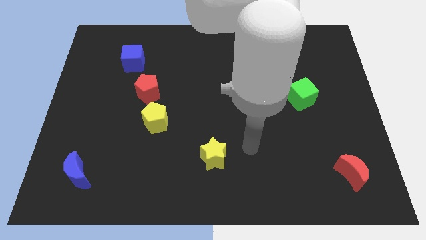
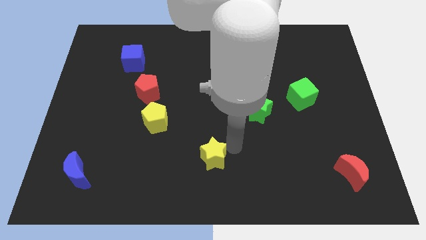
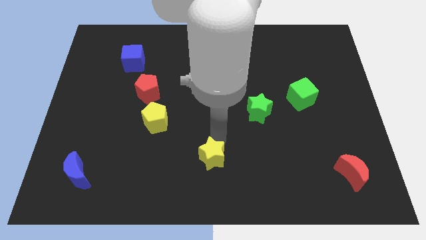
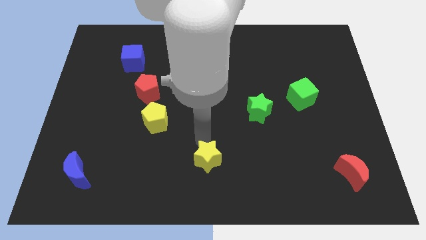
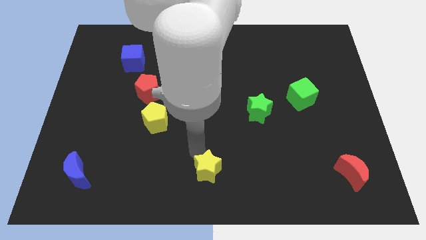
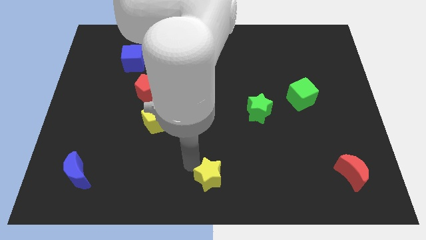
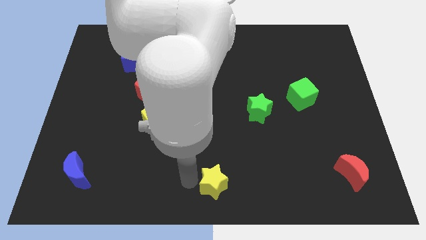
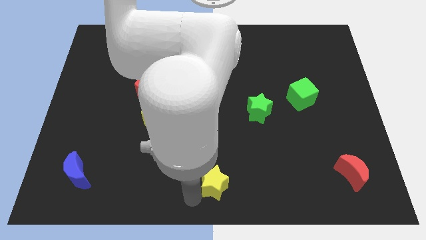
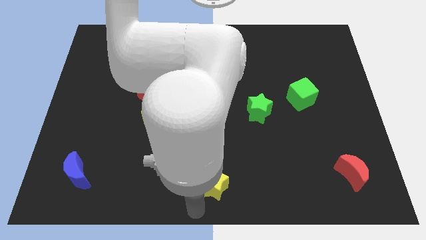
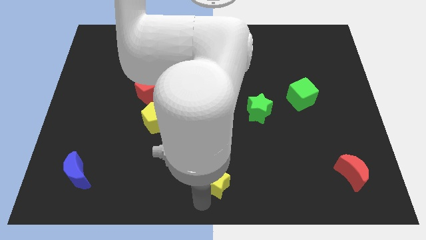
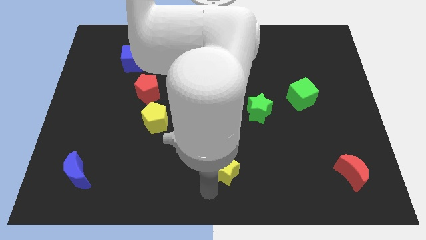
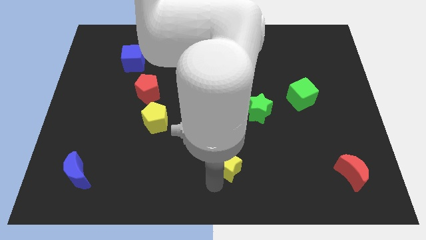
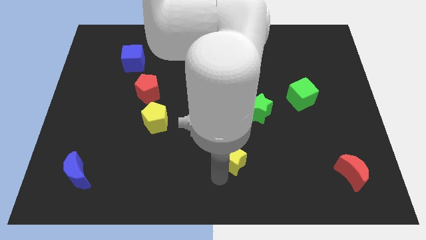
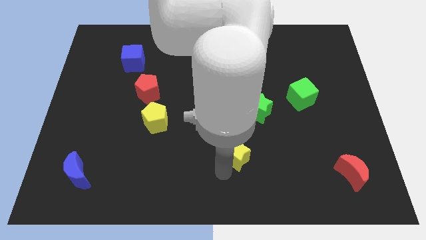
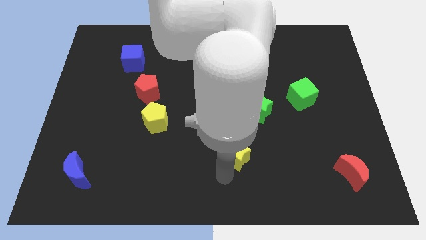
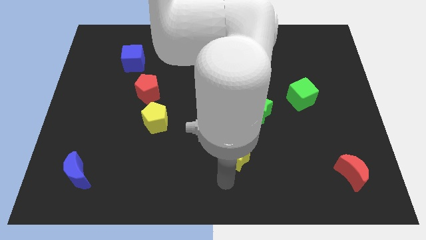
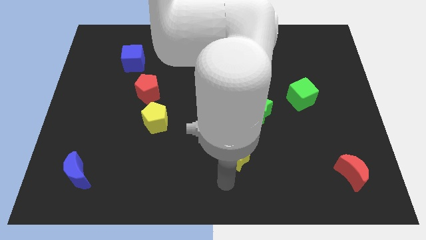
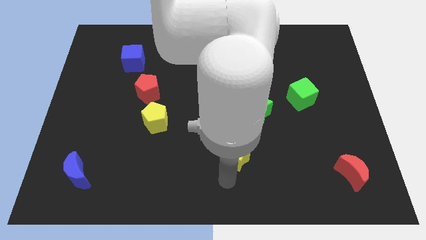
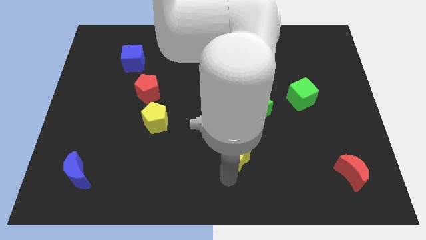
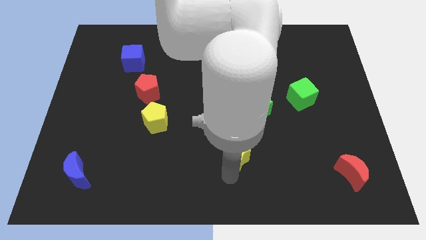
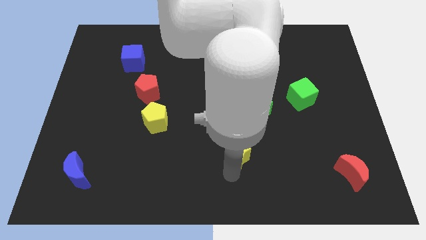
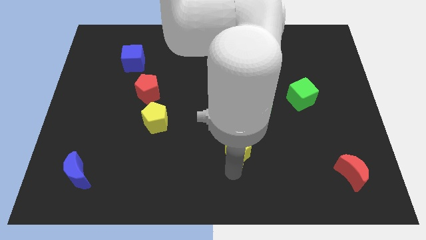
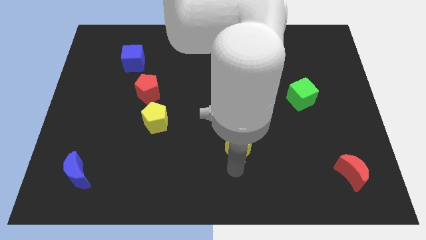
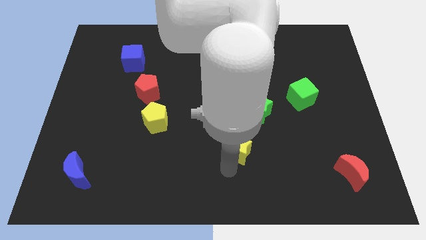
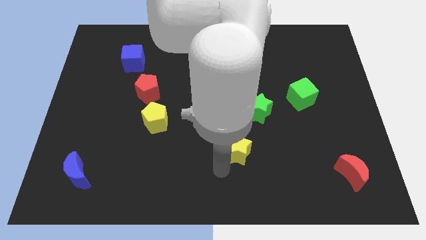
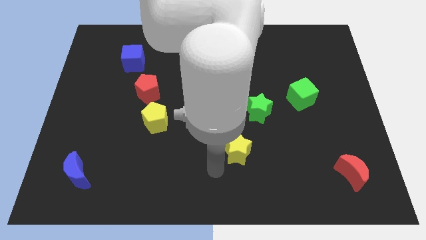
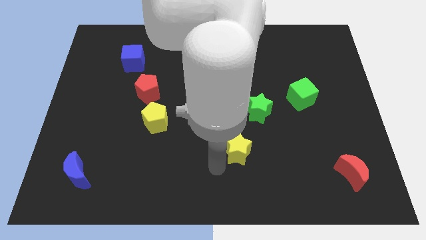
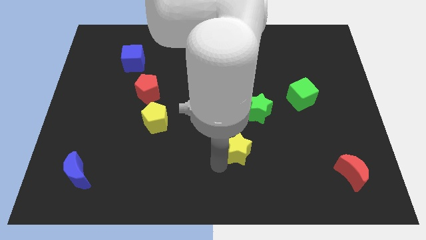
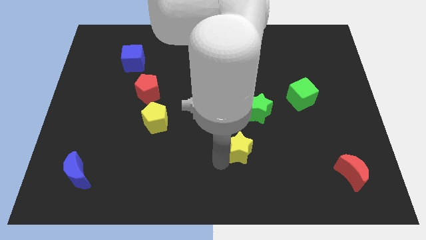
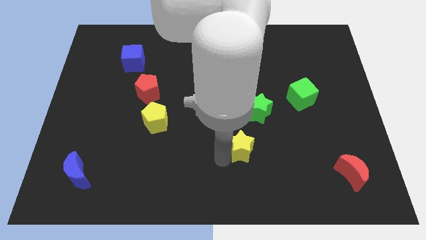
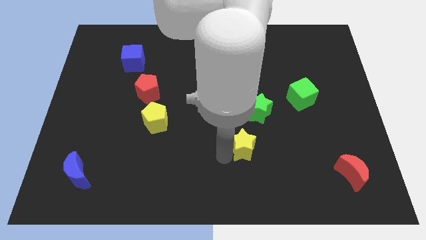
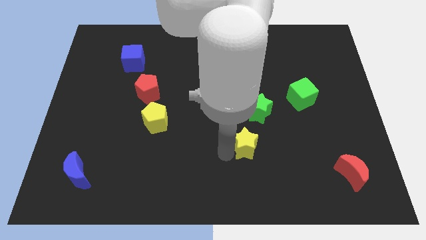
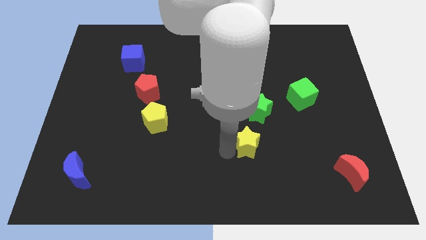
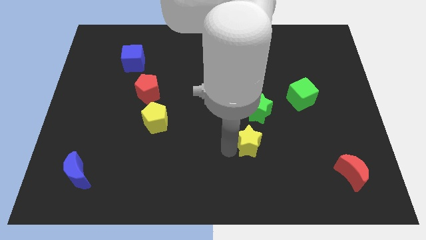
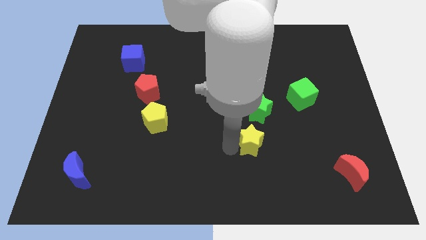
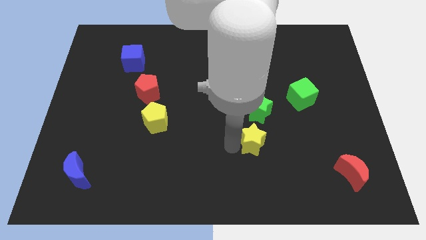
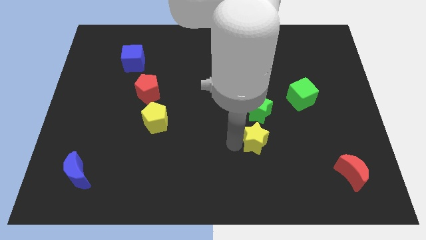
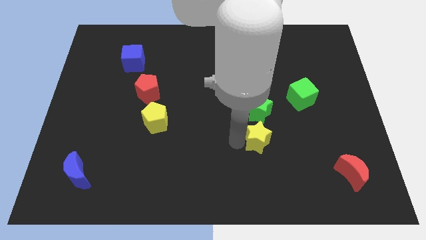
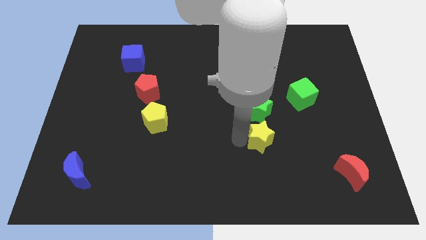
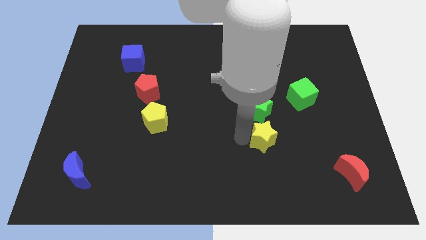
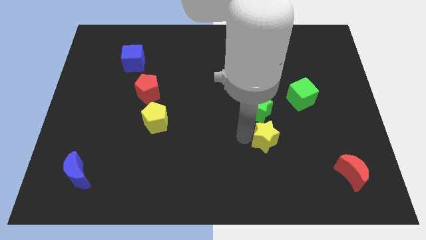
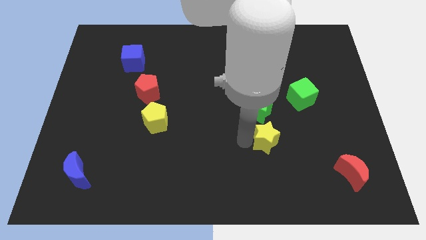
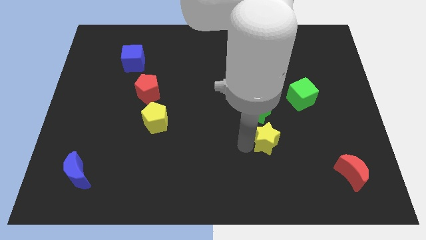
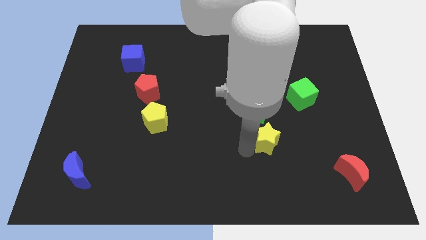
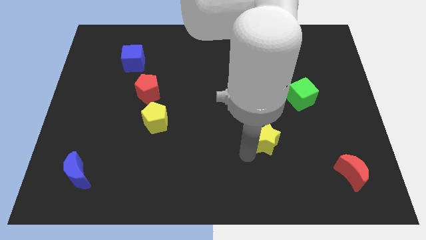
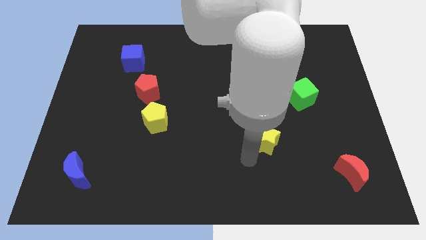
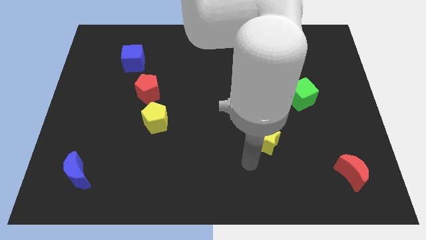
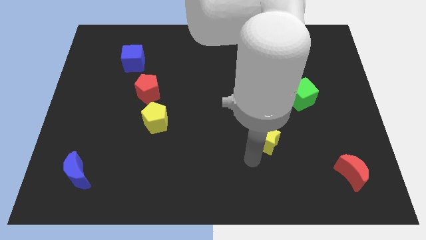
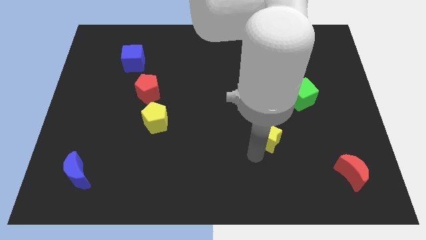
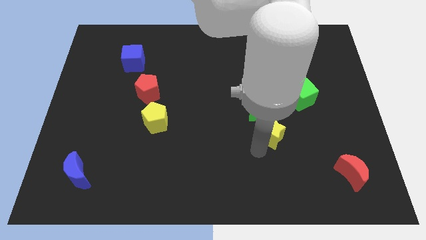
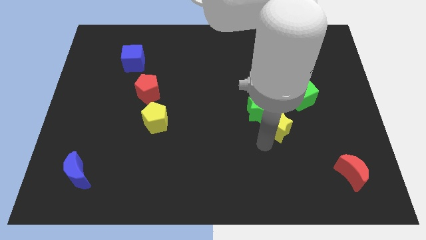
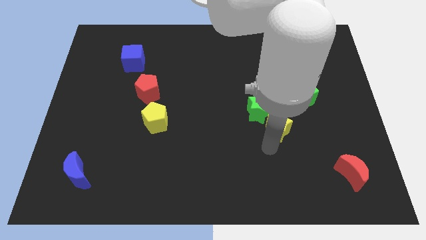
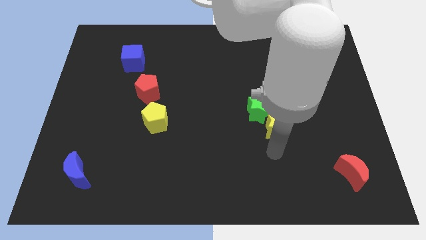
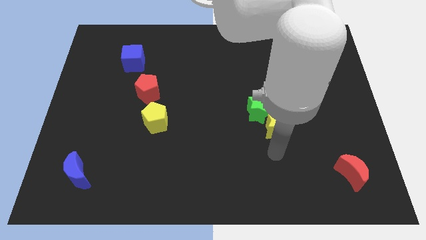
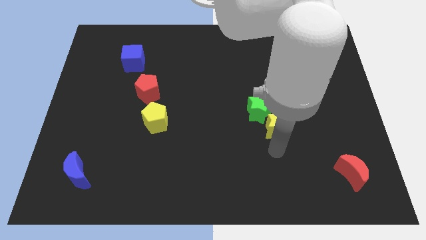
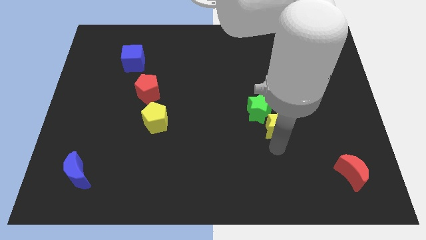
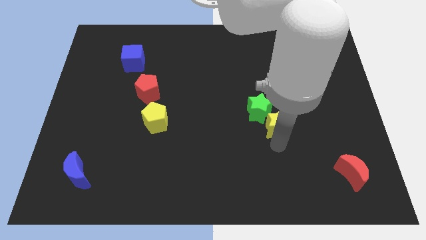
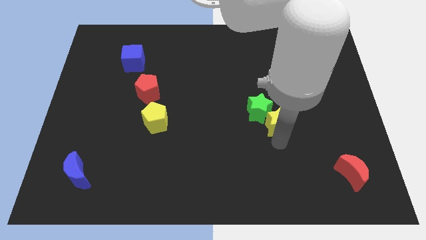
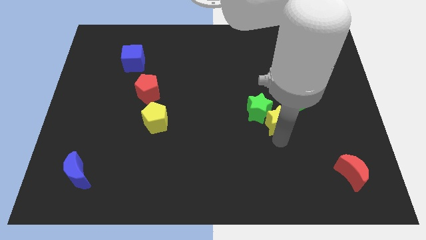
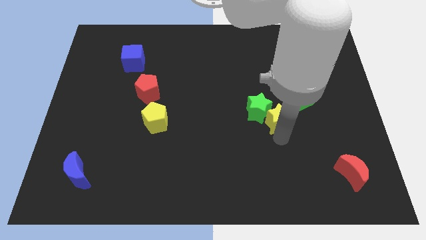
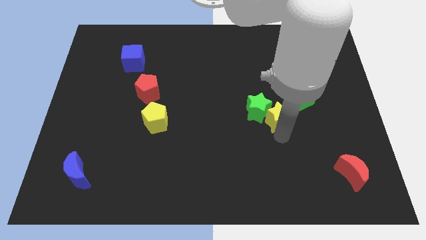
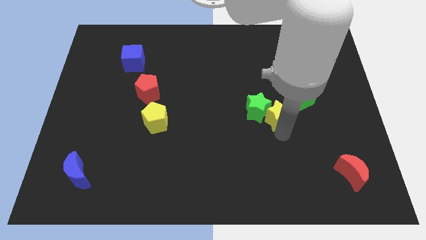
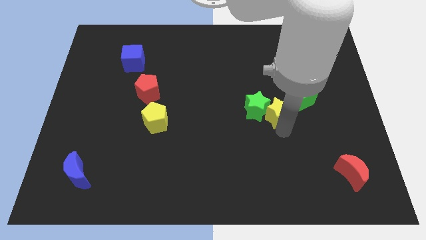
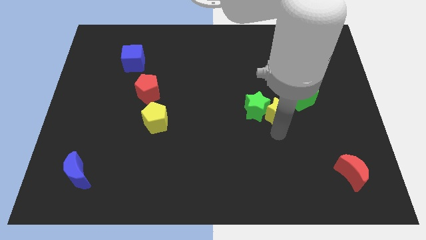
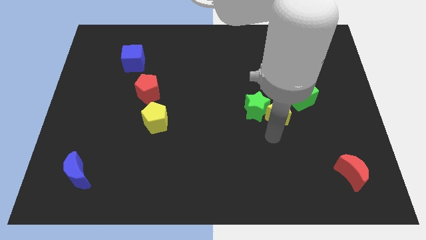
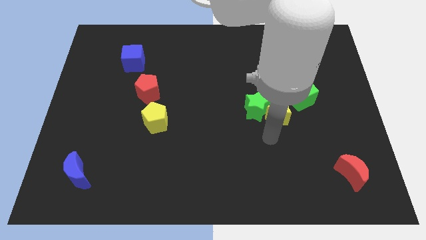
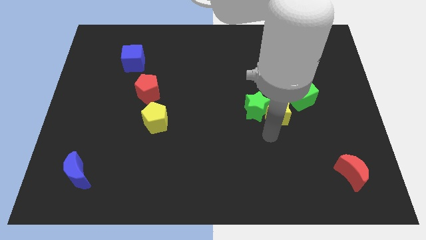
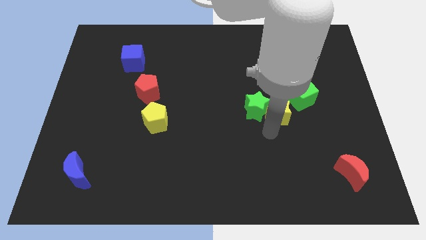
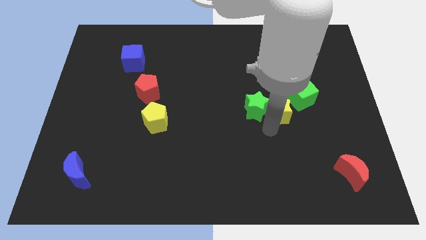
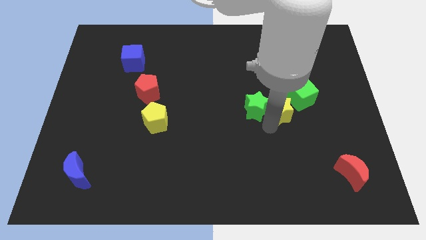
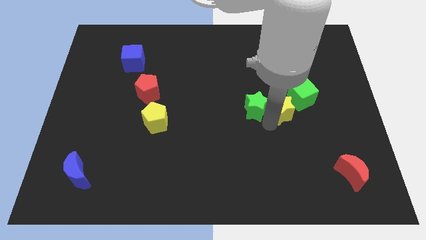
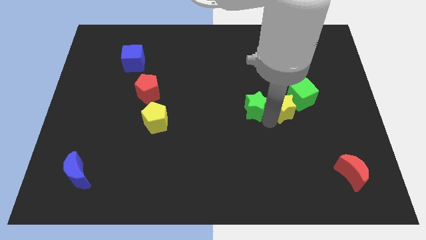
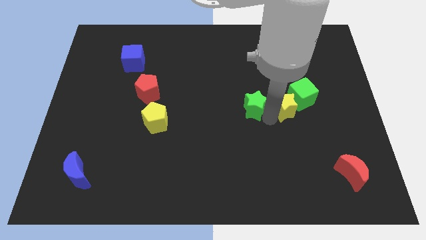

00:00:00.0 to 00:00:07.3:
slide the yellow star upwards and then to the right

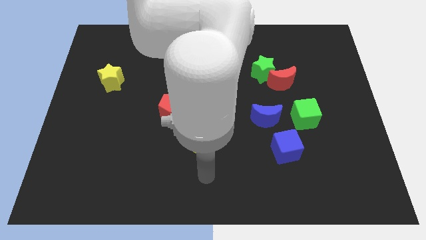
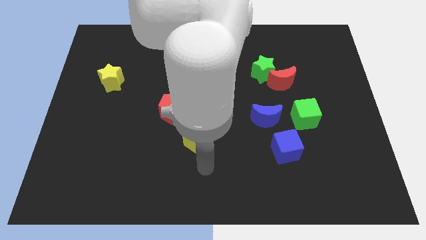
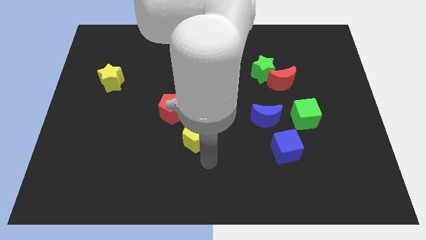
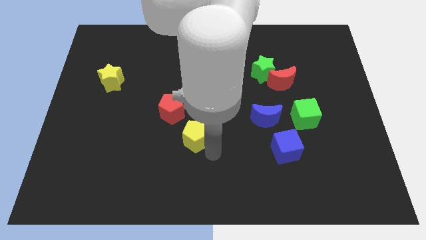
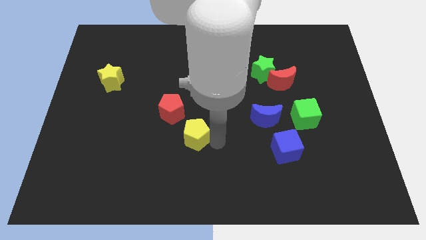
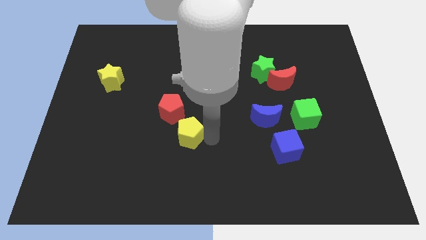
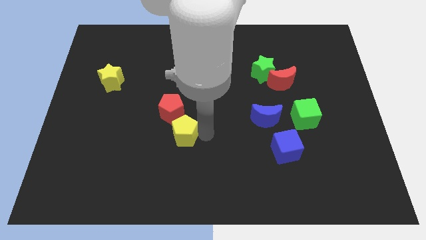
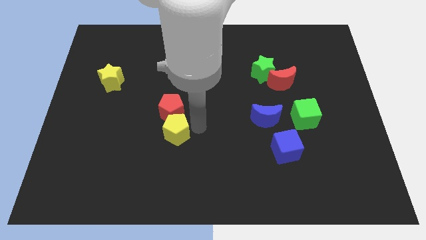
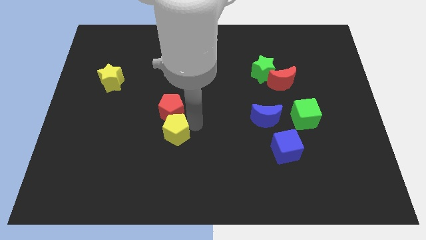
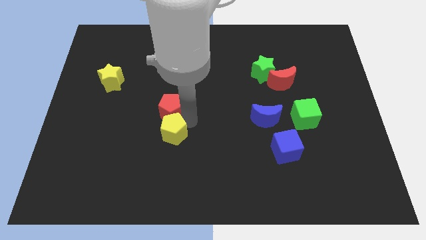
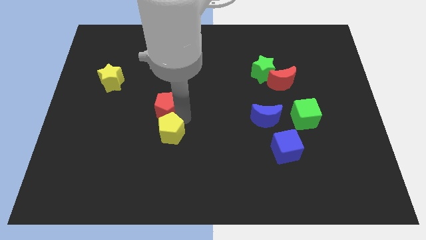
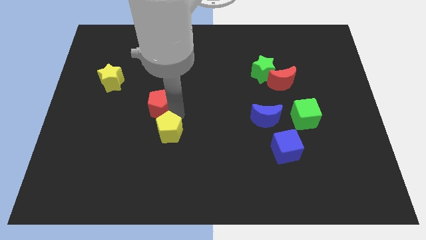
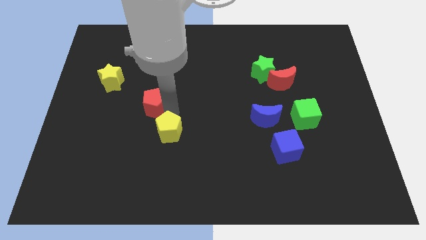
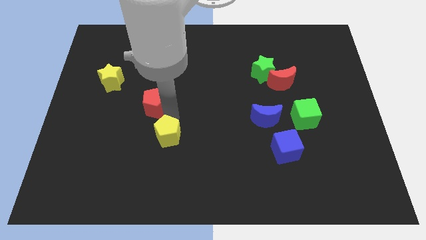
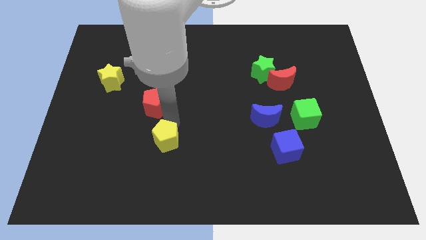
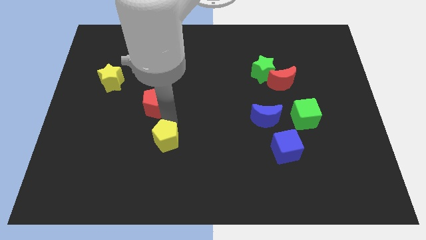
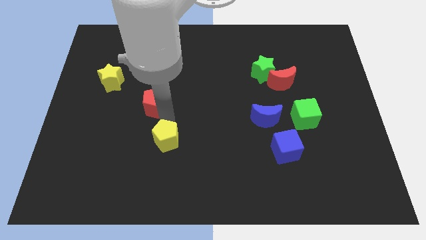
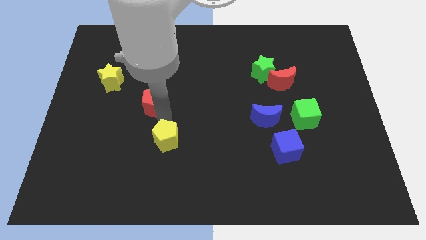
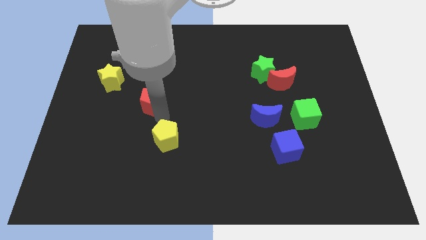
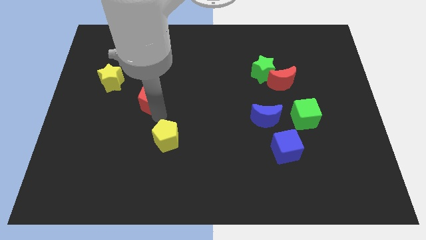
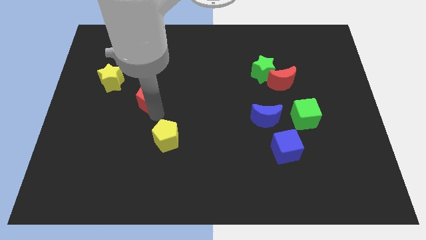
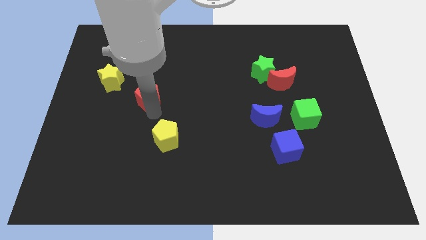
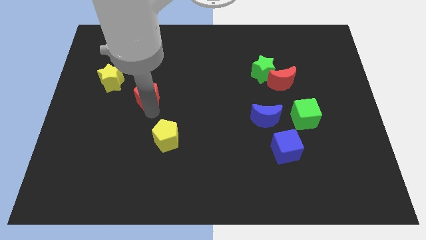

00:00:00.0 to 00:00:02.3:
push the red pentagon slightly up and then to the left
